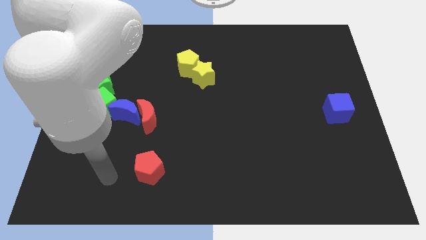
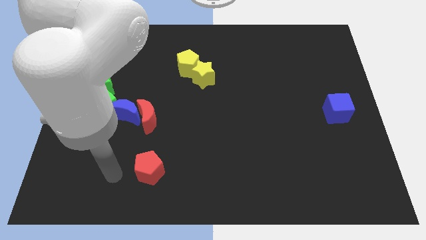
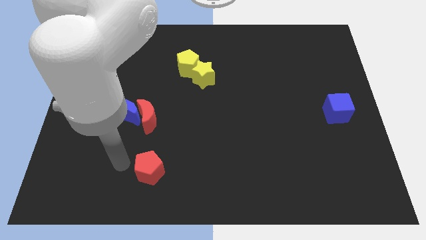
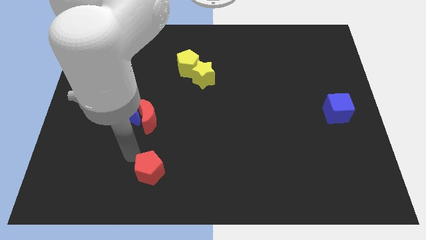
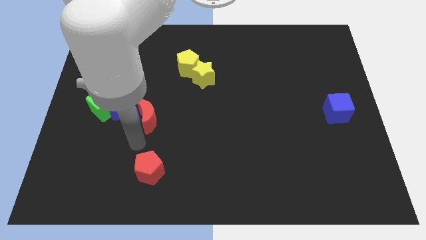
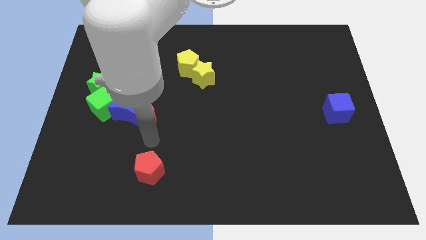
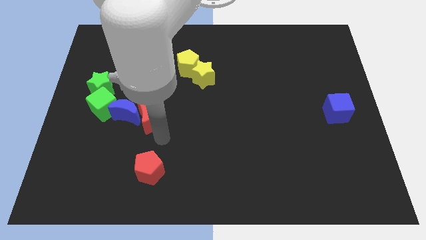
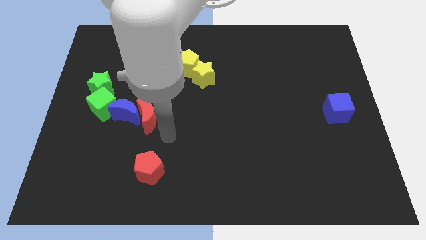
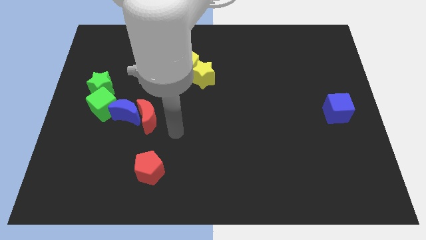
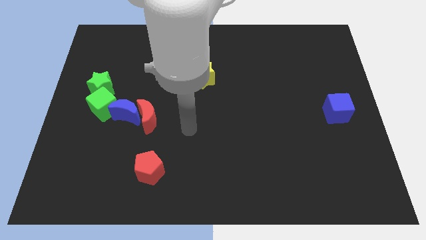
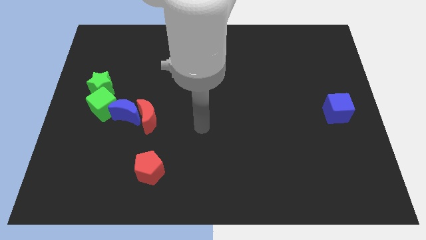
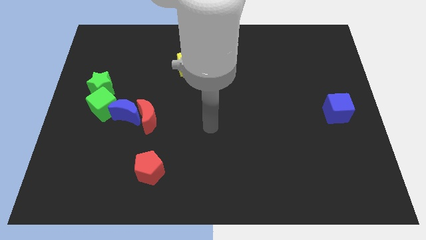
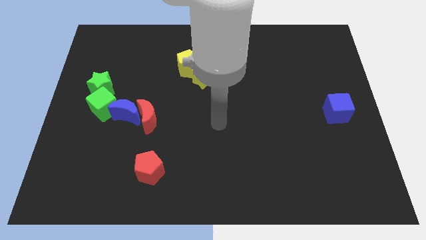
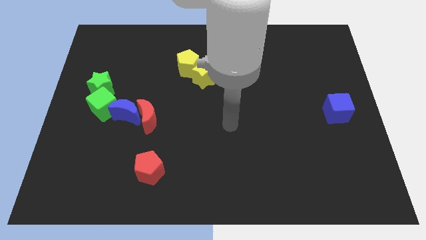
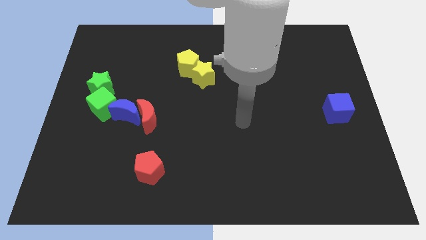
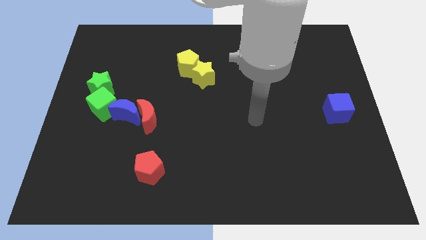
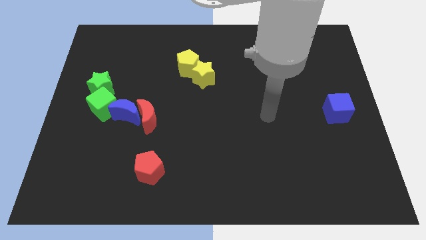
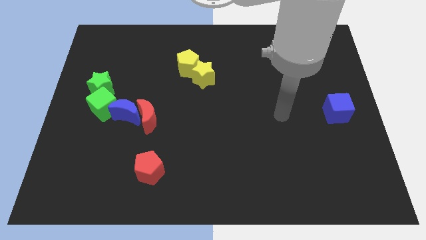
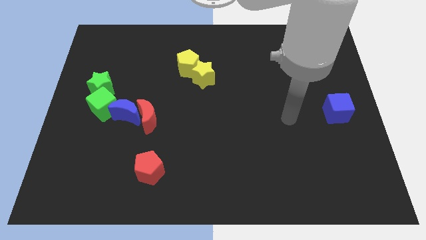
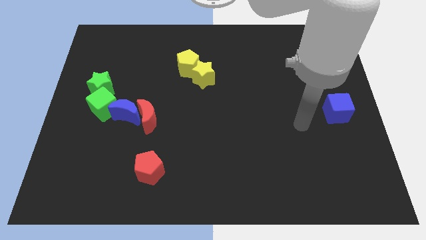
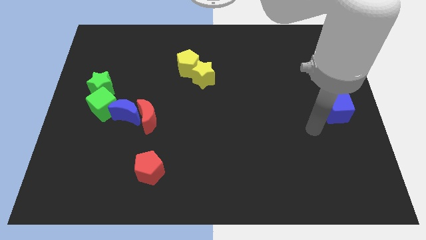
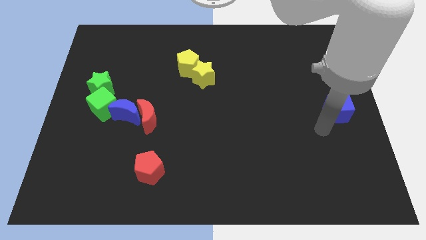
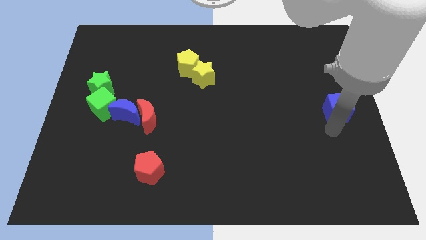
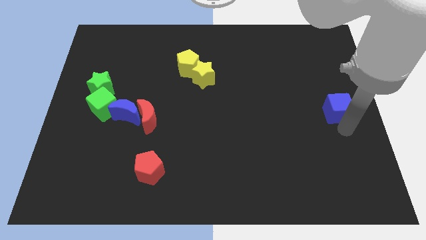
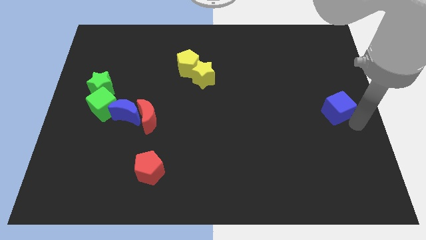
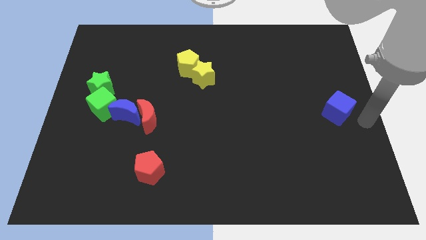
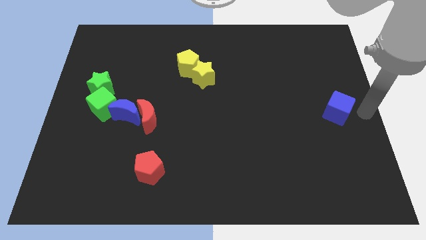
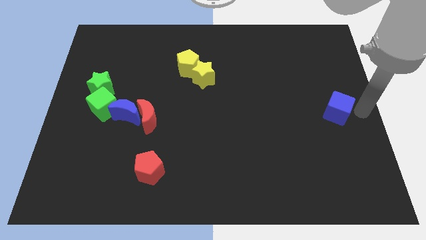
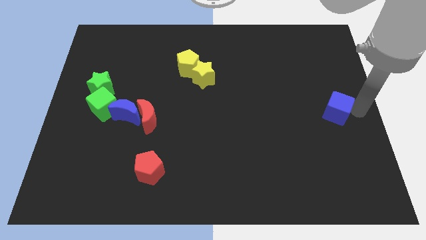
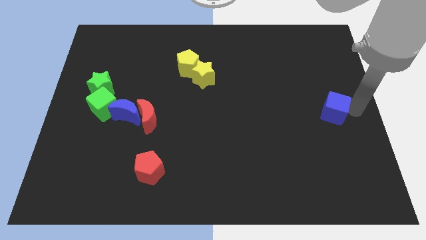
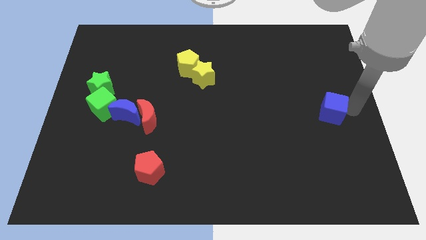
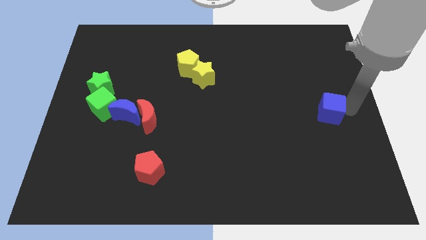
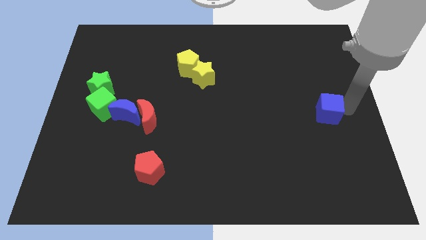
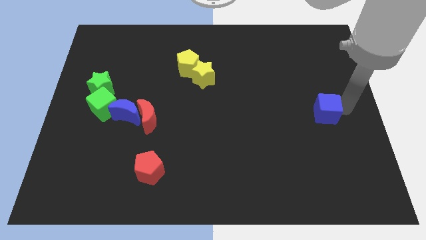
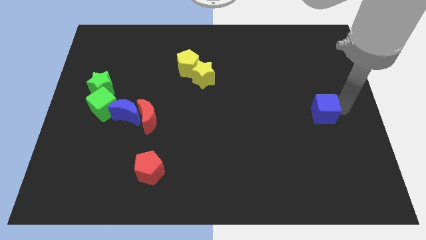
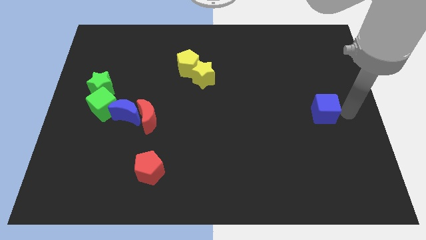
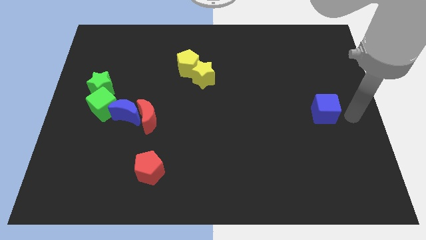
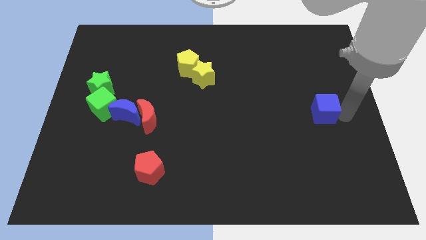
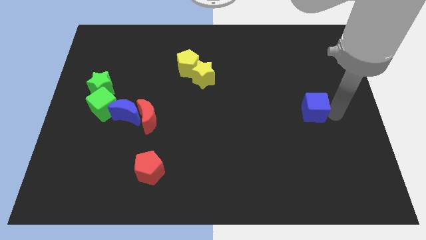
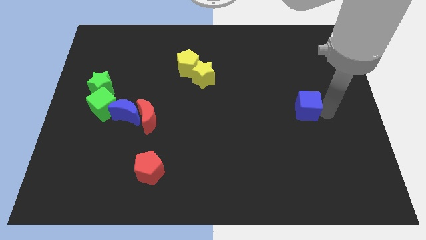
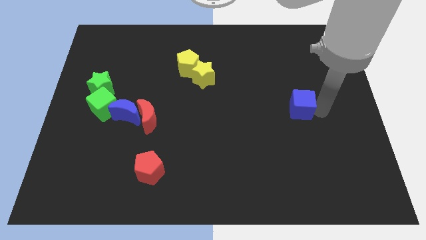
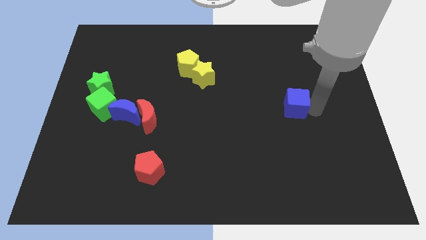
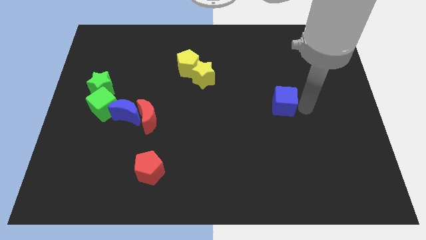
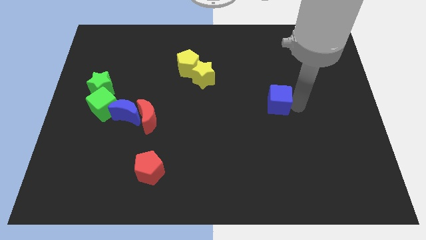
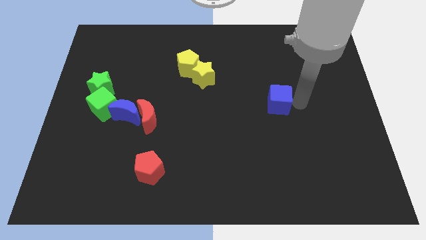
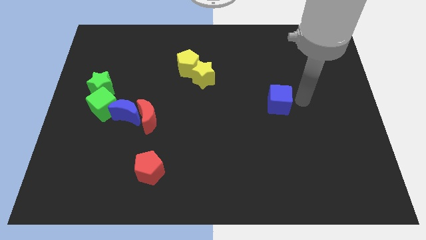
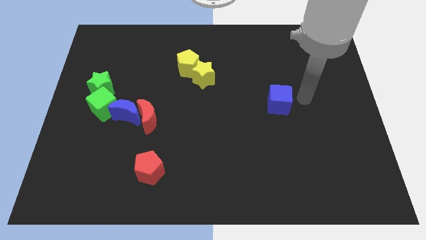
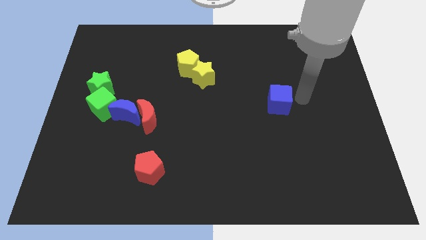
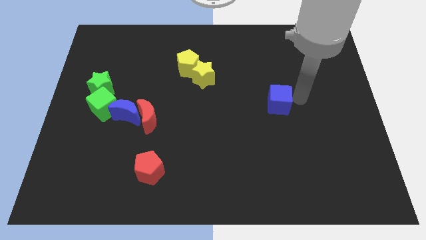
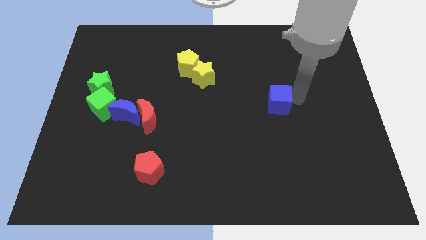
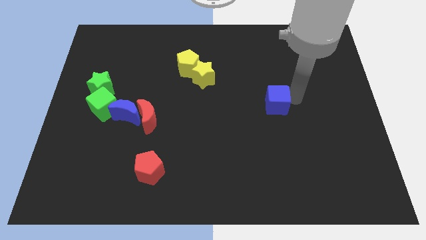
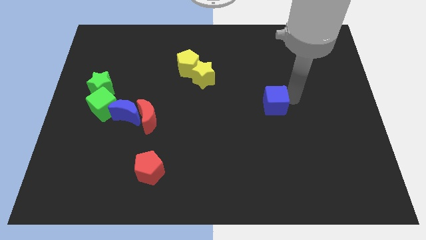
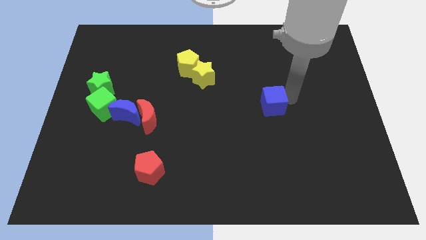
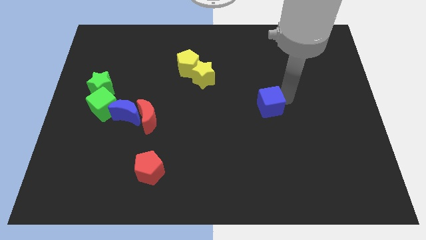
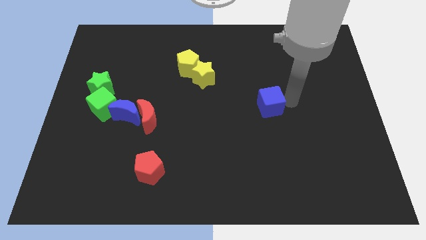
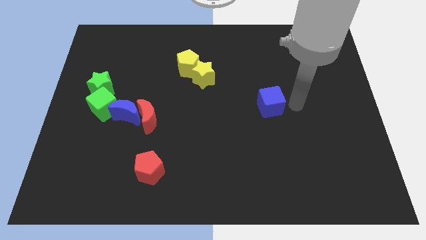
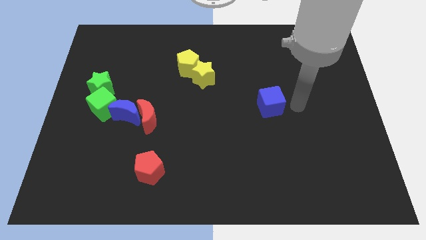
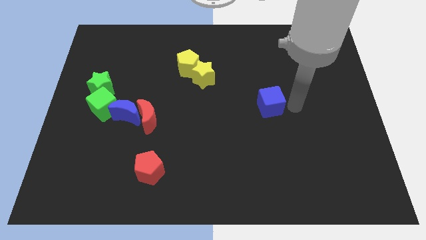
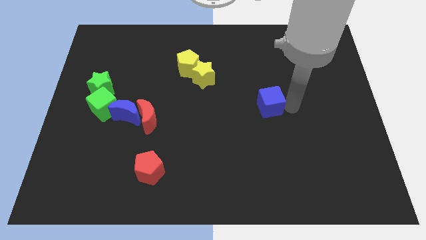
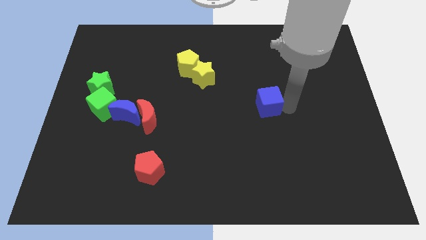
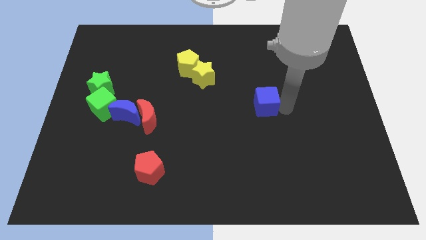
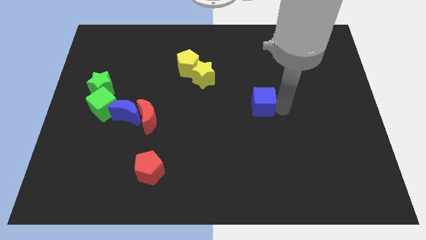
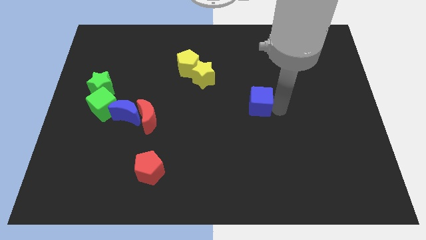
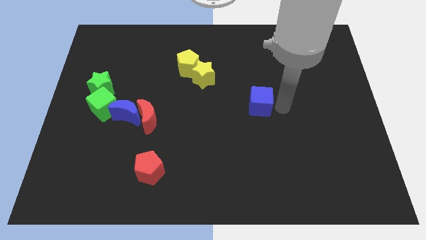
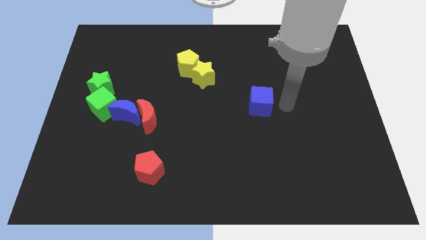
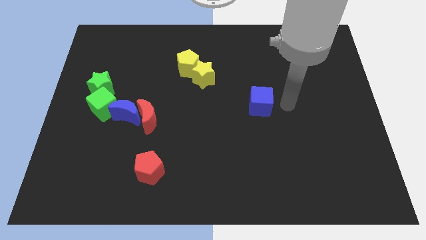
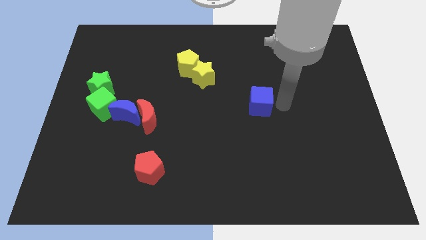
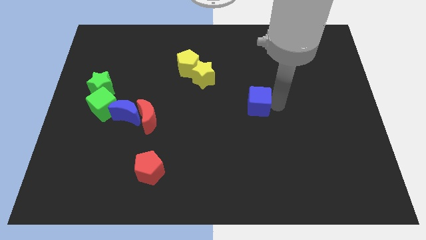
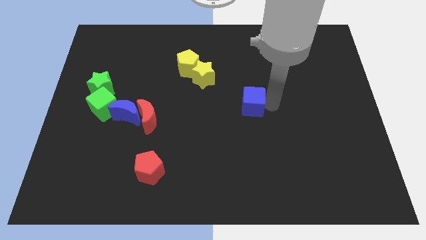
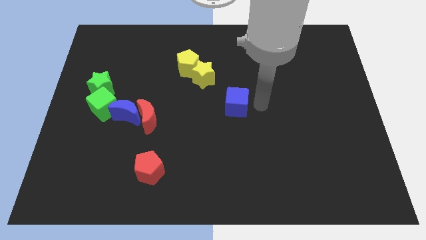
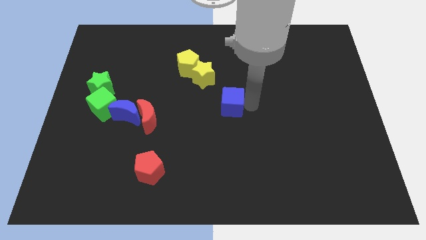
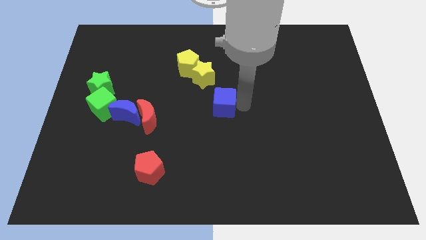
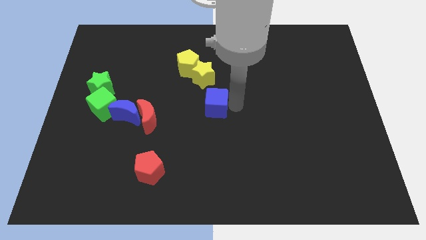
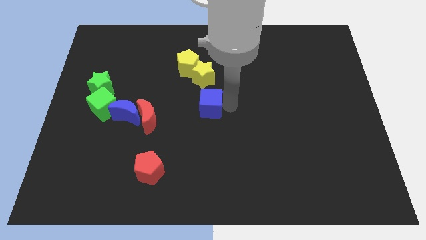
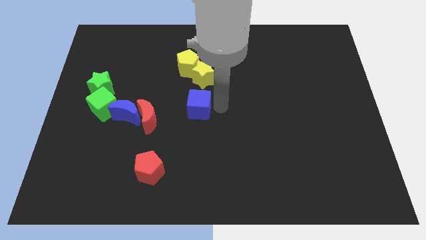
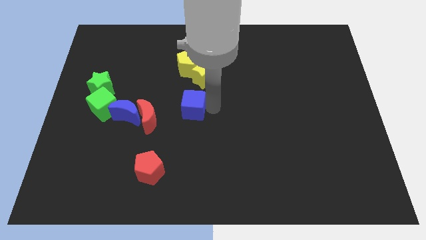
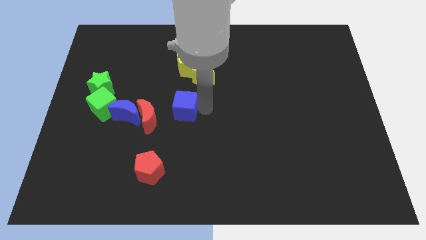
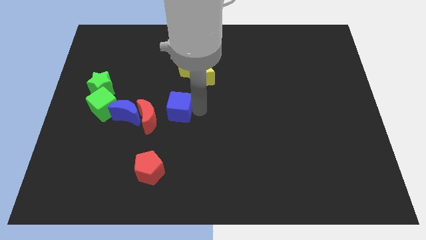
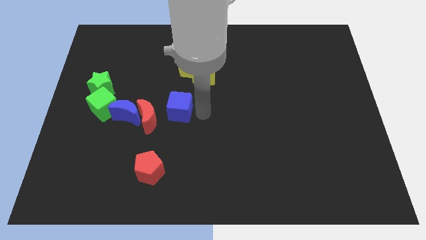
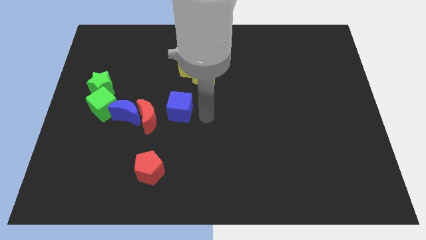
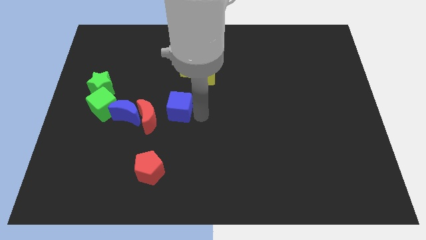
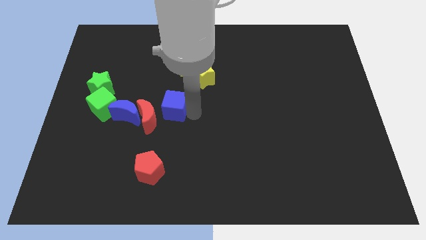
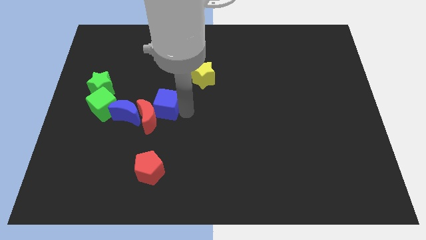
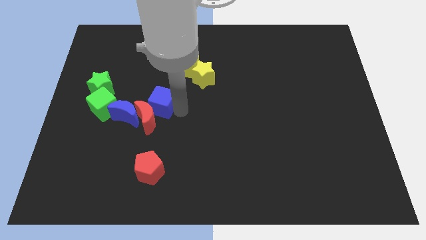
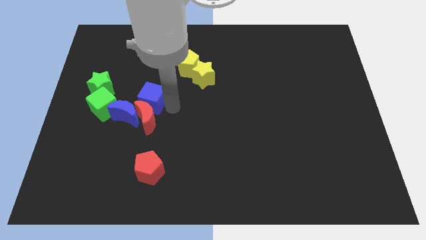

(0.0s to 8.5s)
push the blue cube to the top left of the red moon
